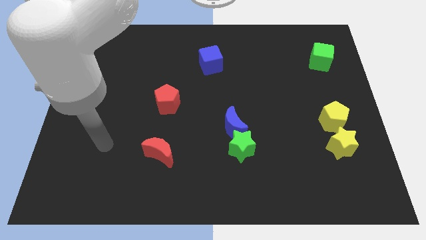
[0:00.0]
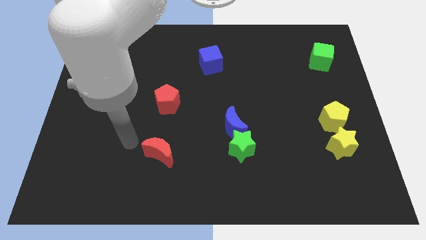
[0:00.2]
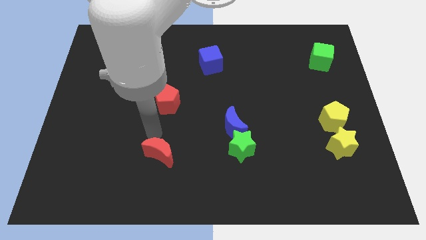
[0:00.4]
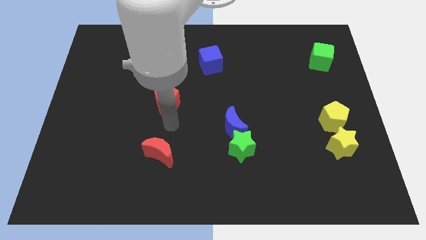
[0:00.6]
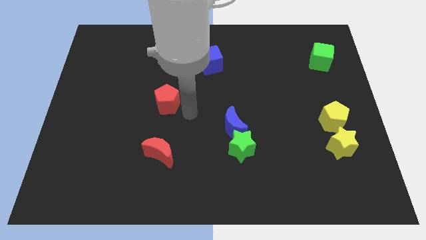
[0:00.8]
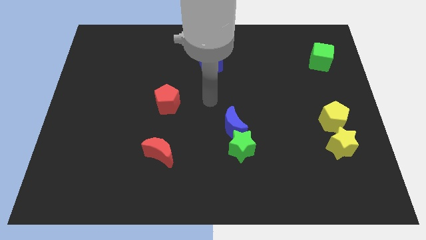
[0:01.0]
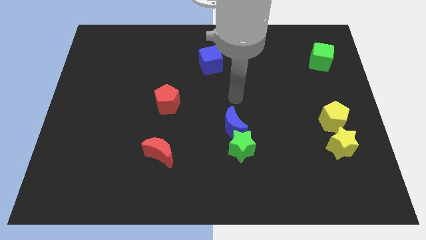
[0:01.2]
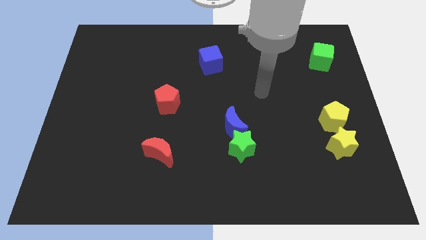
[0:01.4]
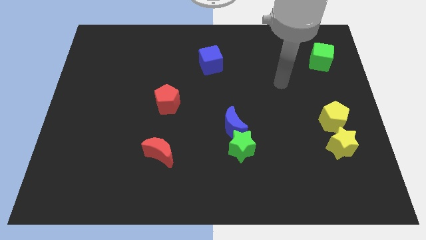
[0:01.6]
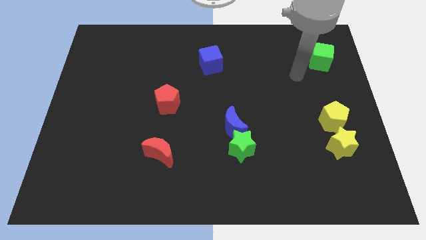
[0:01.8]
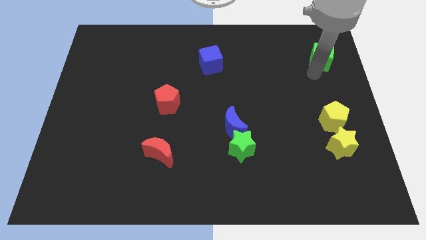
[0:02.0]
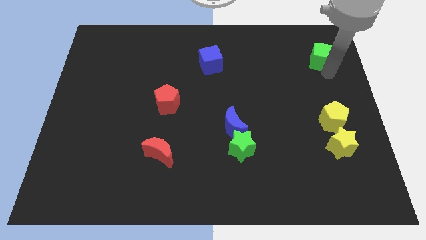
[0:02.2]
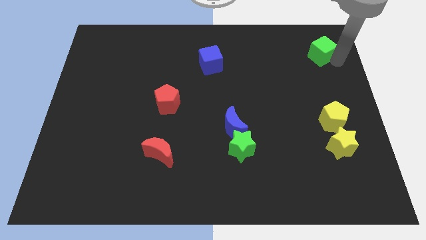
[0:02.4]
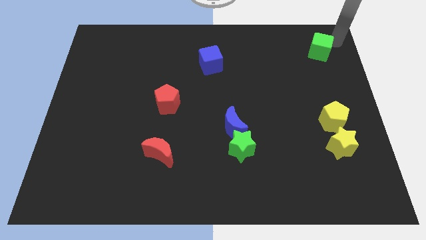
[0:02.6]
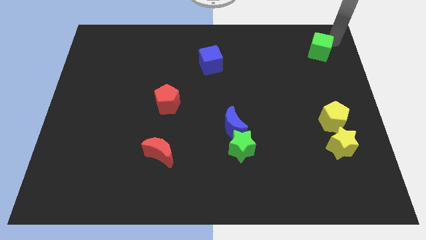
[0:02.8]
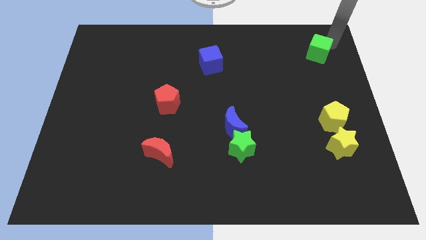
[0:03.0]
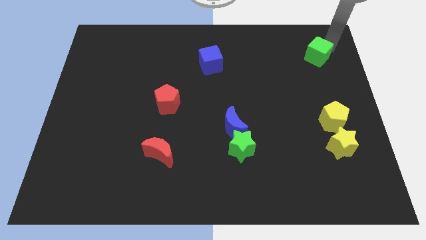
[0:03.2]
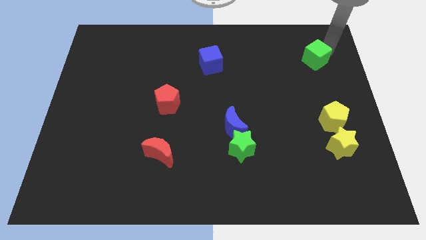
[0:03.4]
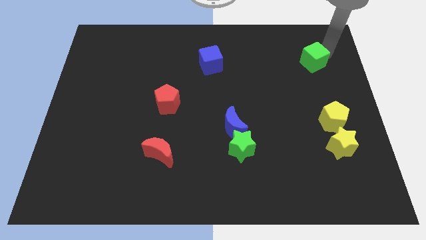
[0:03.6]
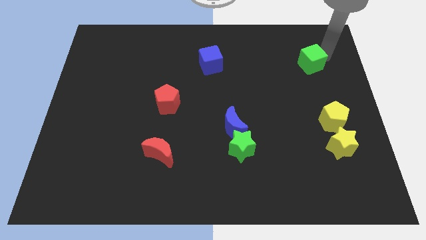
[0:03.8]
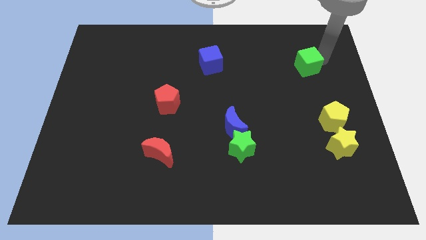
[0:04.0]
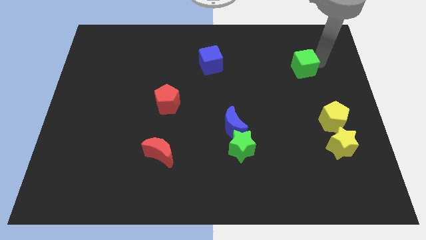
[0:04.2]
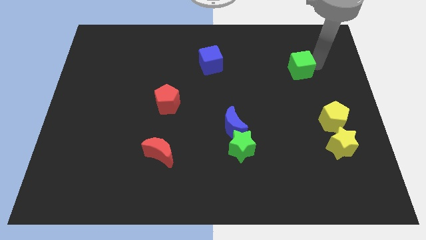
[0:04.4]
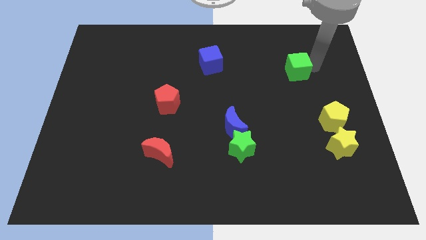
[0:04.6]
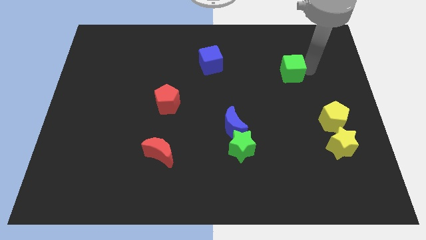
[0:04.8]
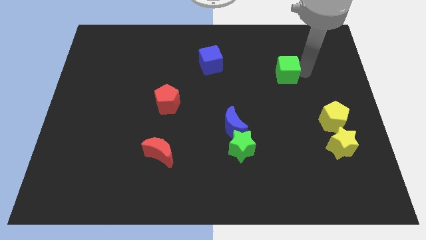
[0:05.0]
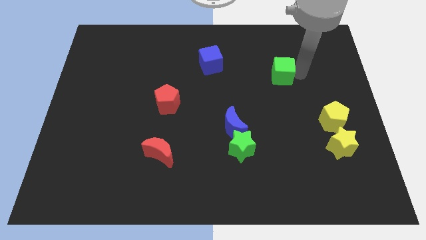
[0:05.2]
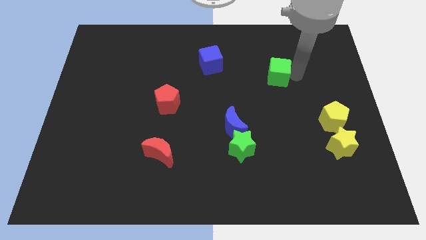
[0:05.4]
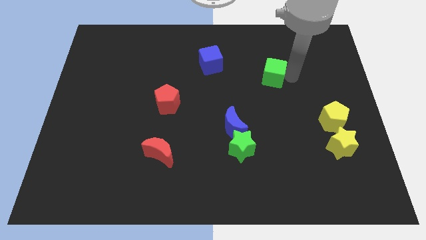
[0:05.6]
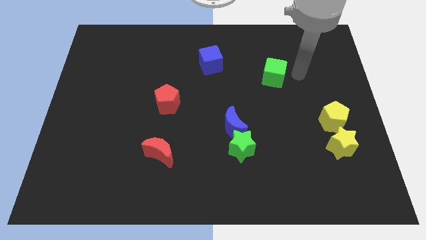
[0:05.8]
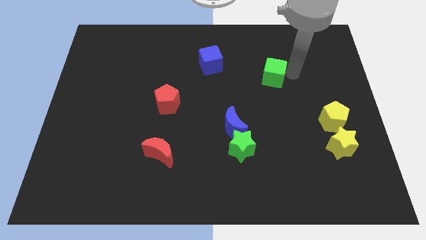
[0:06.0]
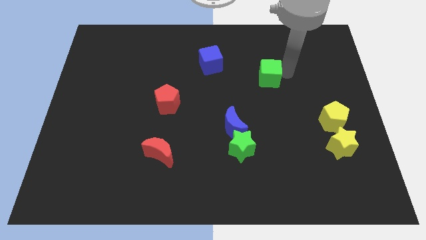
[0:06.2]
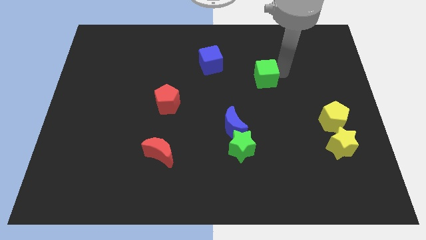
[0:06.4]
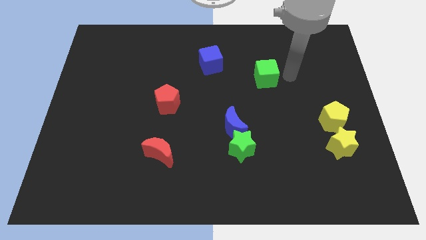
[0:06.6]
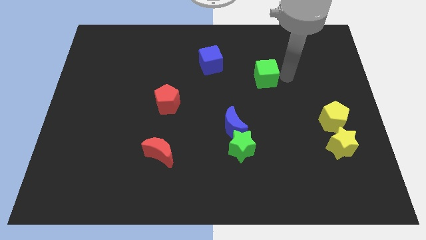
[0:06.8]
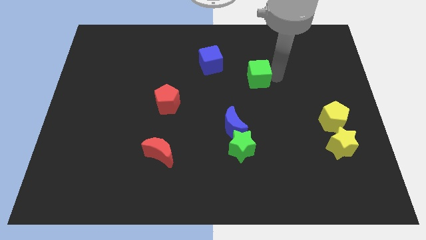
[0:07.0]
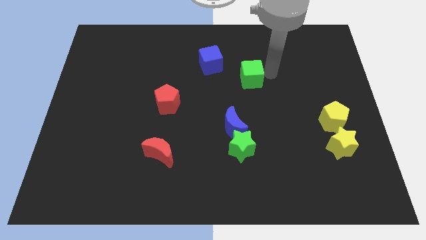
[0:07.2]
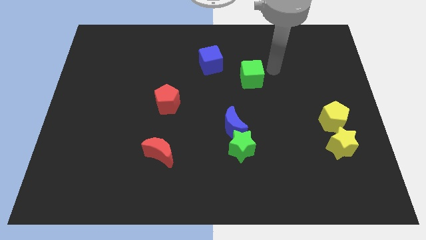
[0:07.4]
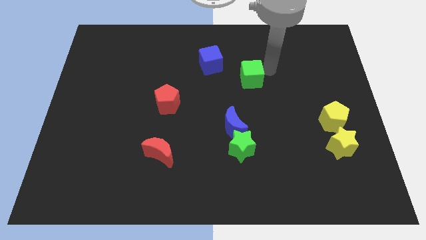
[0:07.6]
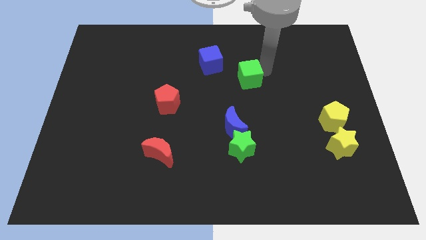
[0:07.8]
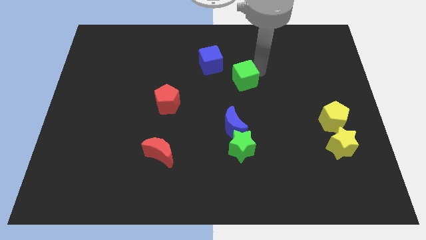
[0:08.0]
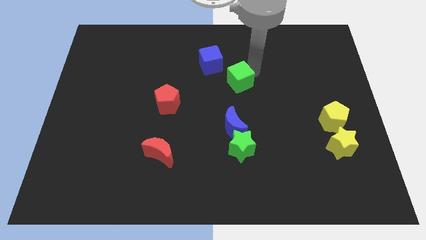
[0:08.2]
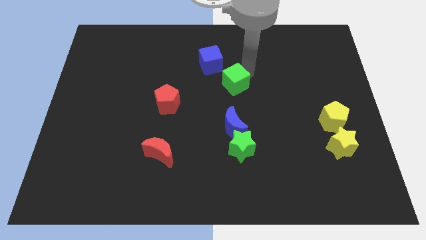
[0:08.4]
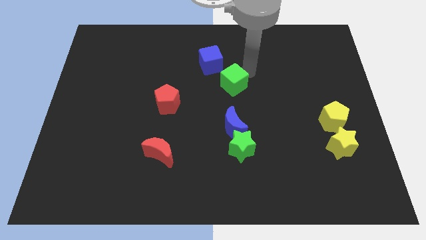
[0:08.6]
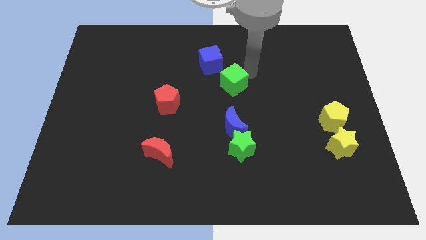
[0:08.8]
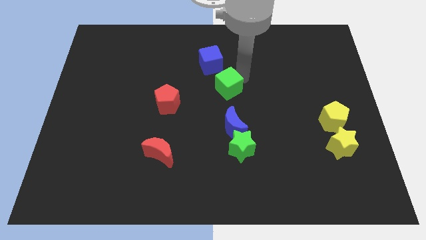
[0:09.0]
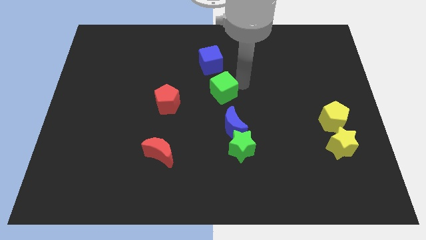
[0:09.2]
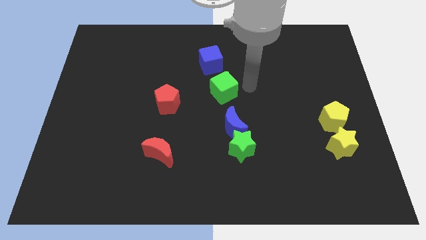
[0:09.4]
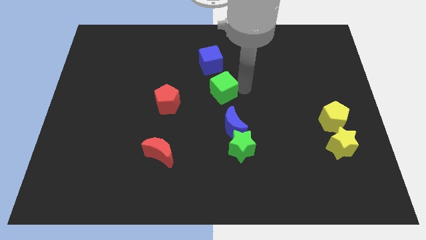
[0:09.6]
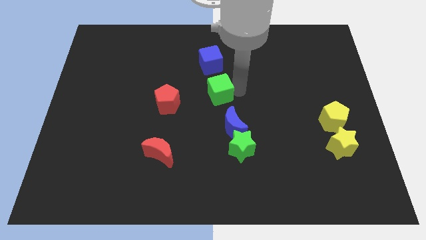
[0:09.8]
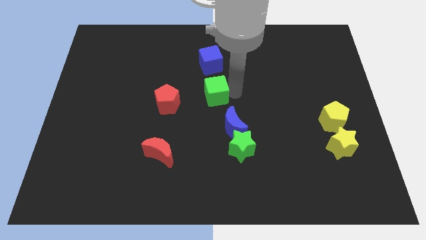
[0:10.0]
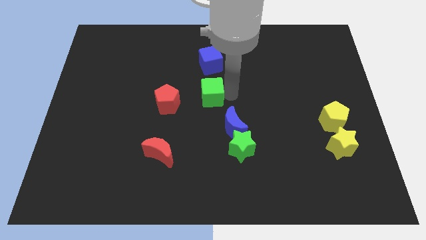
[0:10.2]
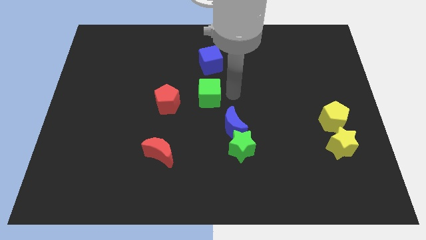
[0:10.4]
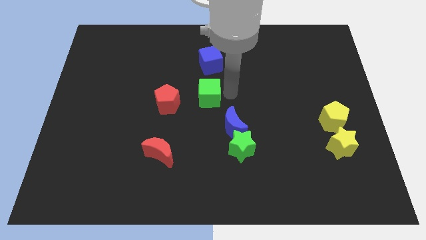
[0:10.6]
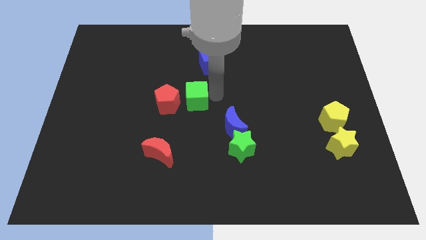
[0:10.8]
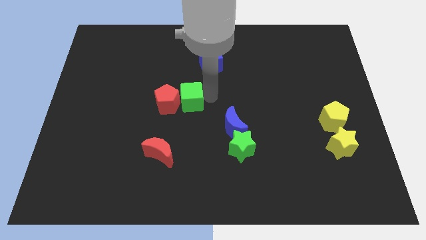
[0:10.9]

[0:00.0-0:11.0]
push the green cube close to the red pentagon
